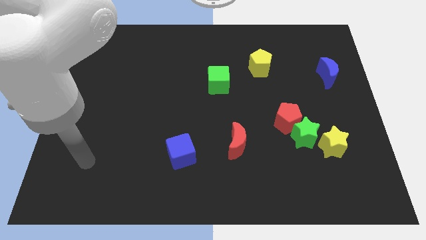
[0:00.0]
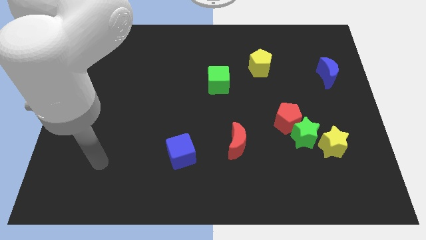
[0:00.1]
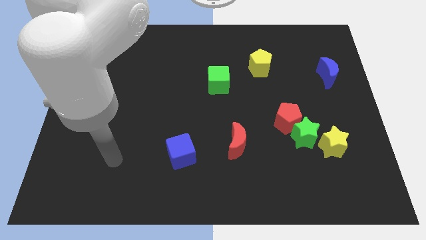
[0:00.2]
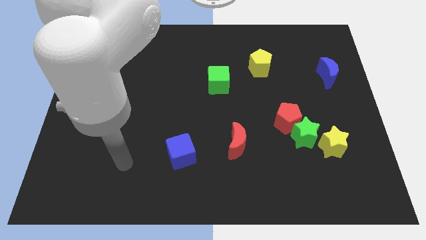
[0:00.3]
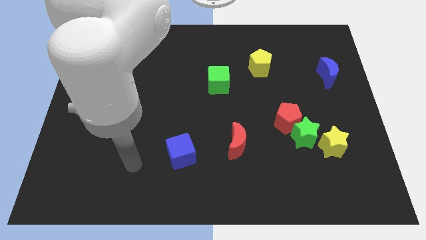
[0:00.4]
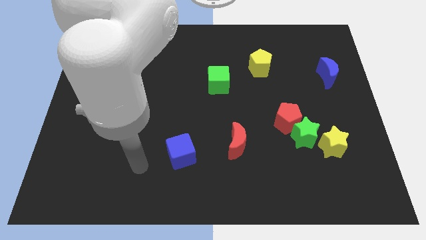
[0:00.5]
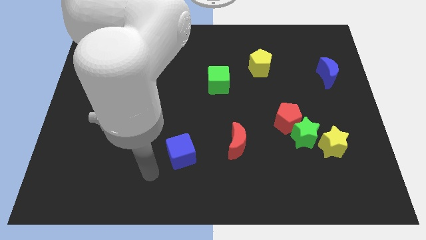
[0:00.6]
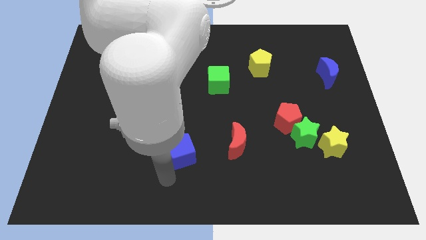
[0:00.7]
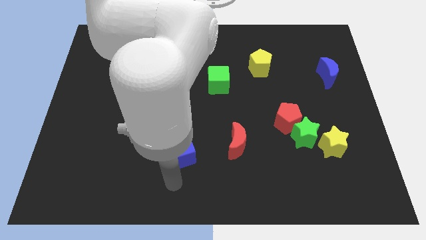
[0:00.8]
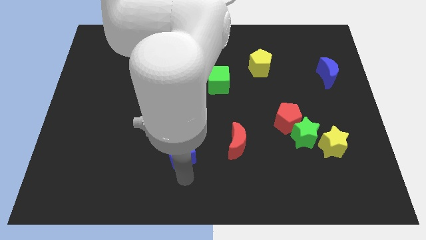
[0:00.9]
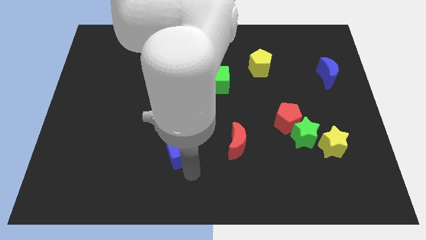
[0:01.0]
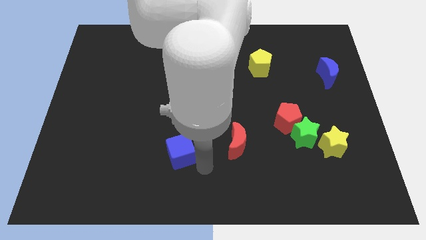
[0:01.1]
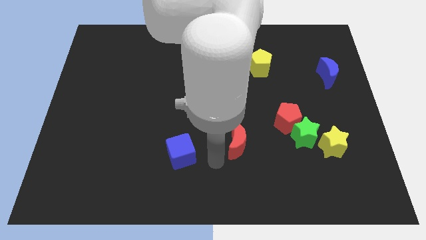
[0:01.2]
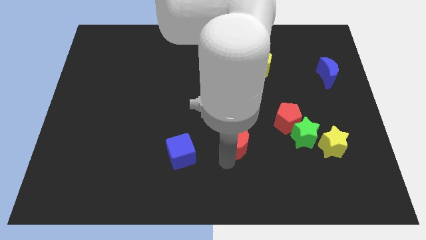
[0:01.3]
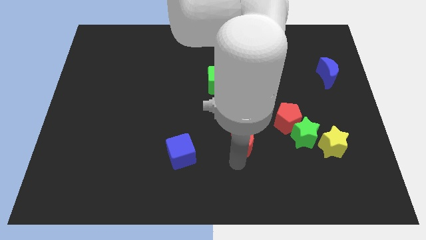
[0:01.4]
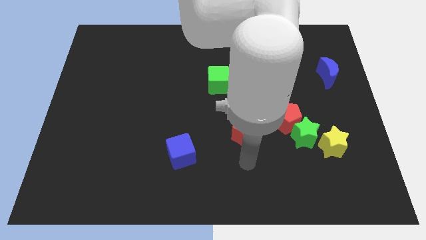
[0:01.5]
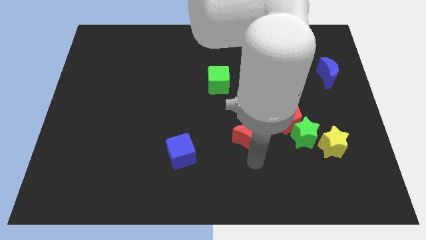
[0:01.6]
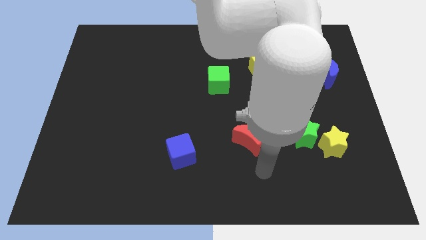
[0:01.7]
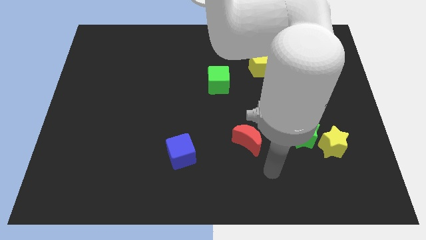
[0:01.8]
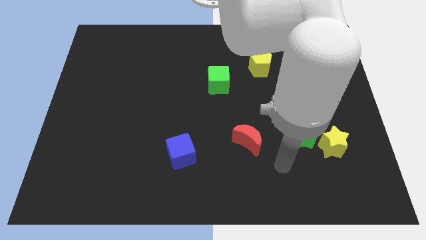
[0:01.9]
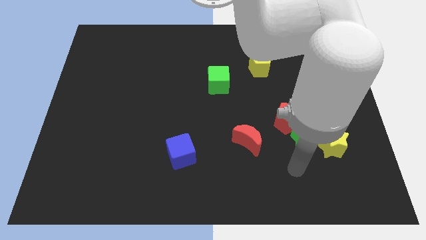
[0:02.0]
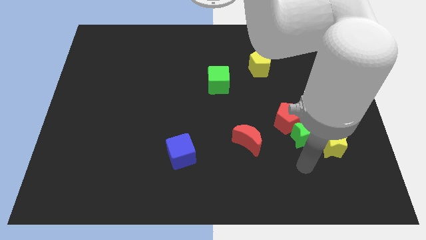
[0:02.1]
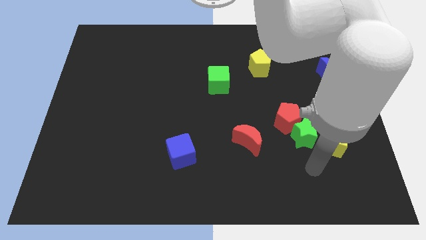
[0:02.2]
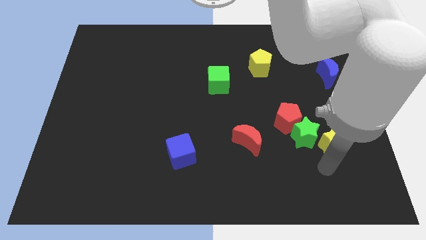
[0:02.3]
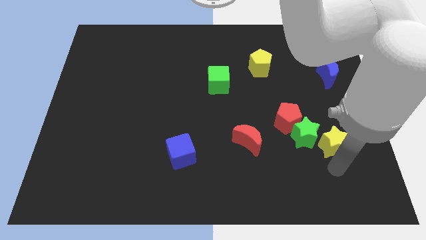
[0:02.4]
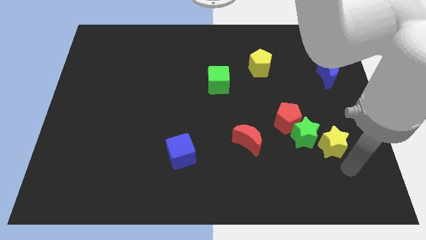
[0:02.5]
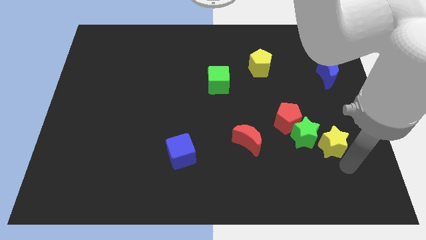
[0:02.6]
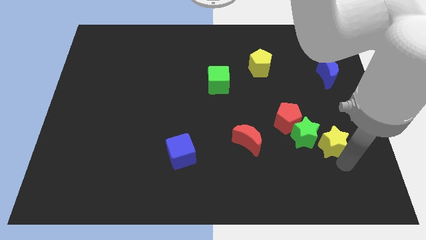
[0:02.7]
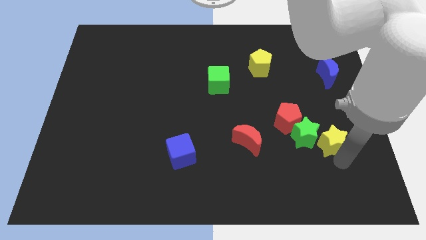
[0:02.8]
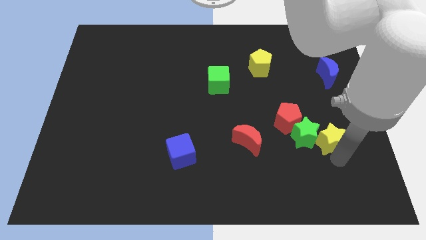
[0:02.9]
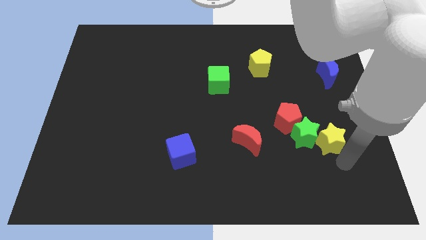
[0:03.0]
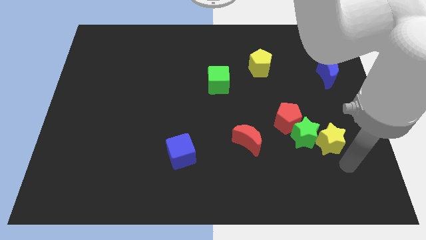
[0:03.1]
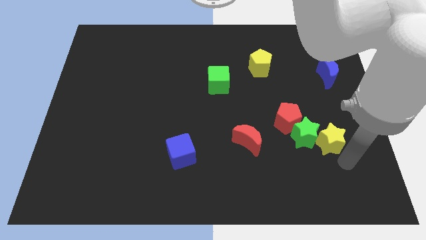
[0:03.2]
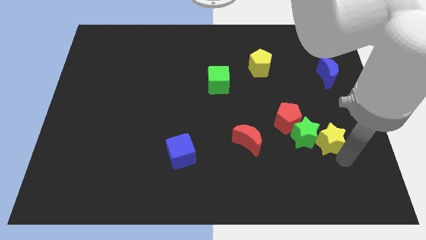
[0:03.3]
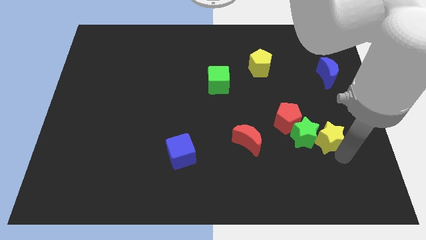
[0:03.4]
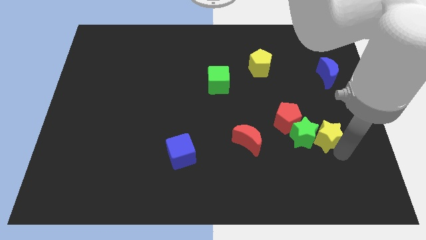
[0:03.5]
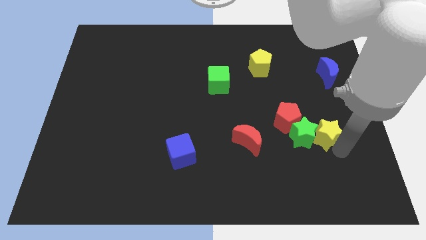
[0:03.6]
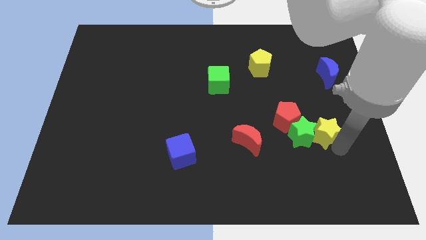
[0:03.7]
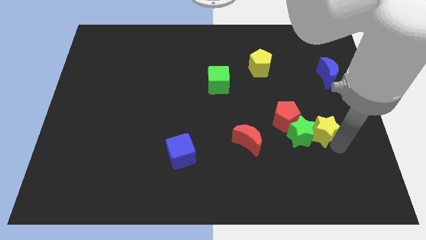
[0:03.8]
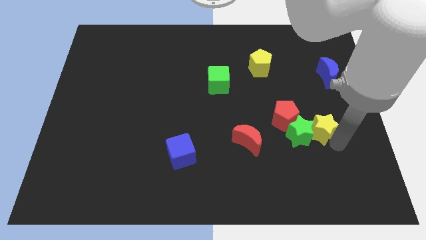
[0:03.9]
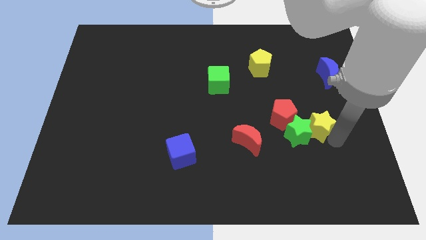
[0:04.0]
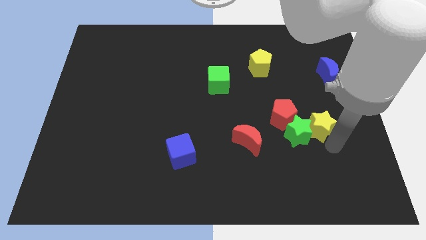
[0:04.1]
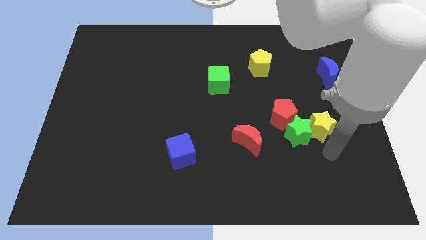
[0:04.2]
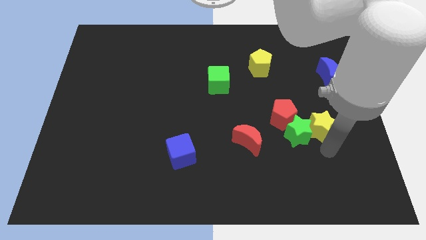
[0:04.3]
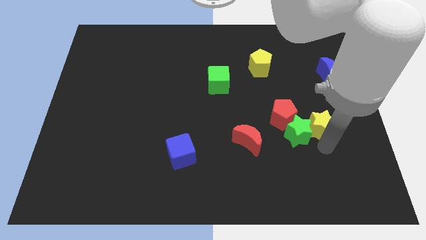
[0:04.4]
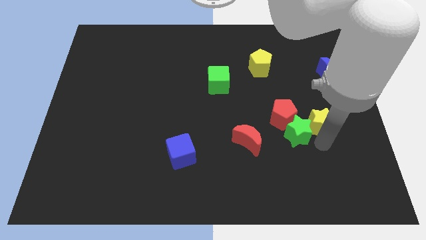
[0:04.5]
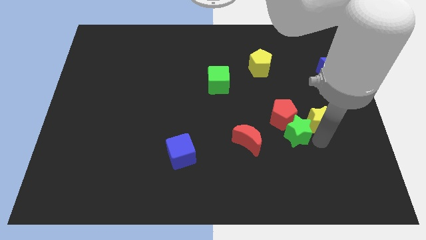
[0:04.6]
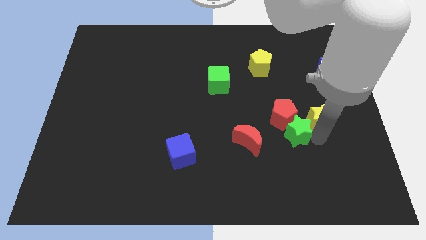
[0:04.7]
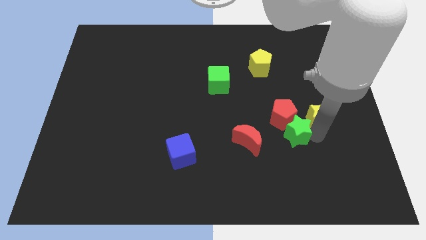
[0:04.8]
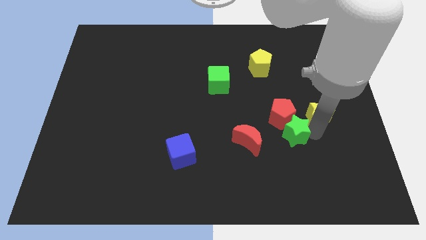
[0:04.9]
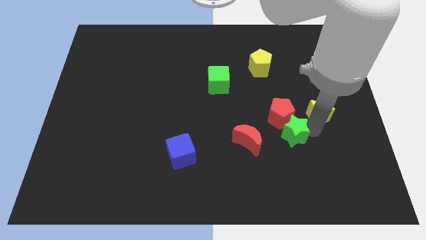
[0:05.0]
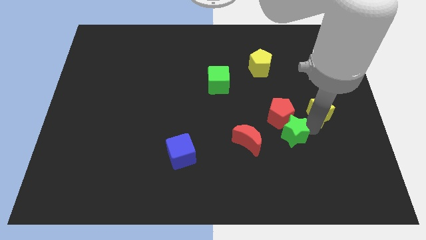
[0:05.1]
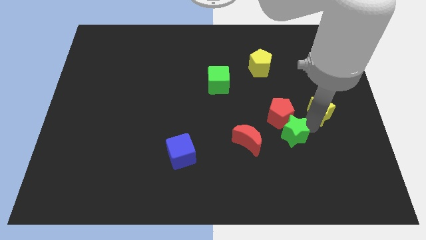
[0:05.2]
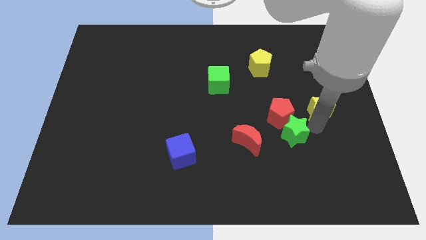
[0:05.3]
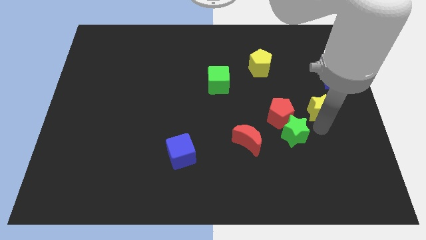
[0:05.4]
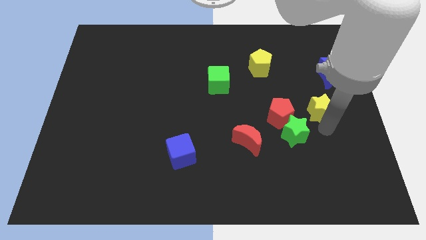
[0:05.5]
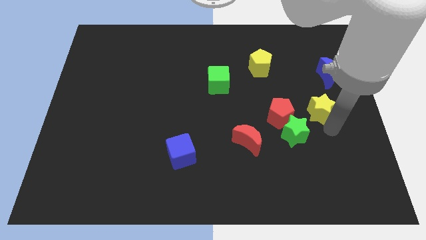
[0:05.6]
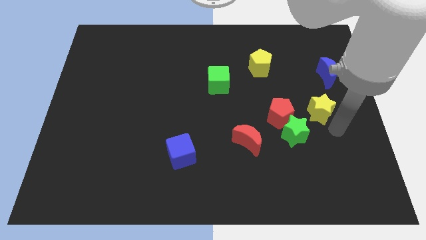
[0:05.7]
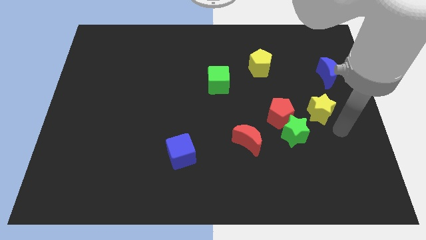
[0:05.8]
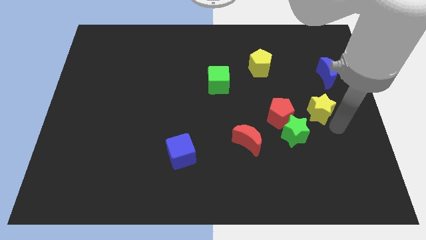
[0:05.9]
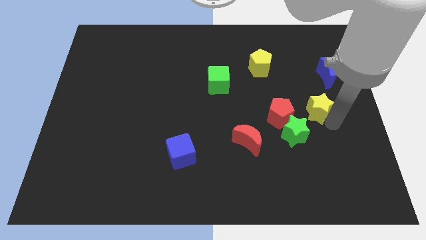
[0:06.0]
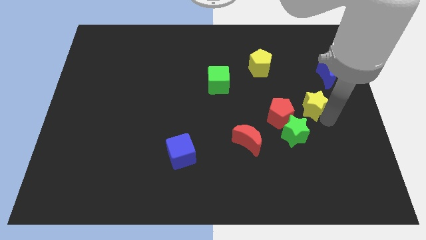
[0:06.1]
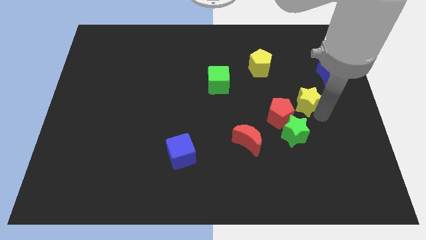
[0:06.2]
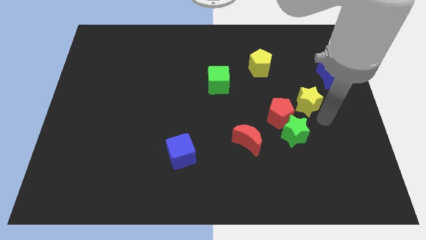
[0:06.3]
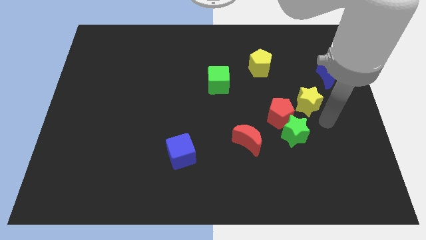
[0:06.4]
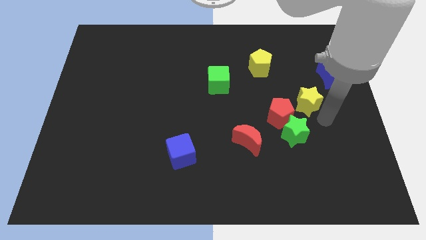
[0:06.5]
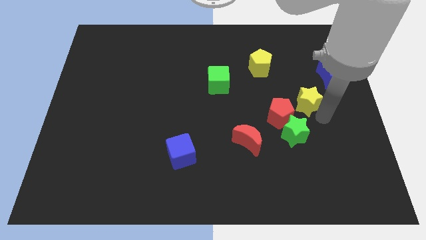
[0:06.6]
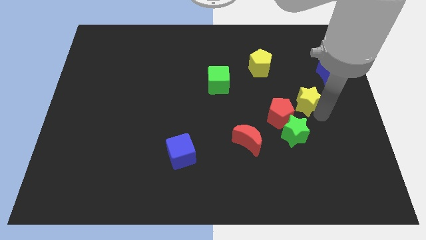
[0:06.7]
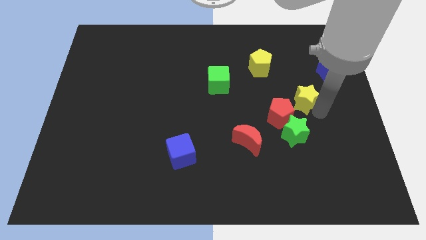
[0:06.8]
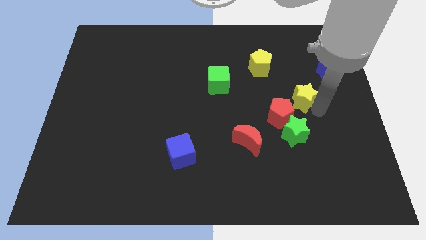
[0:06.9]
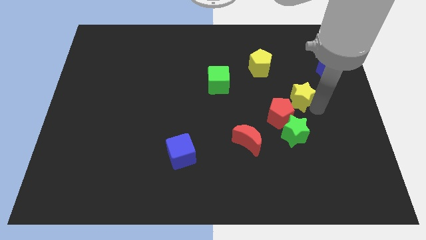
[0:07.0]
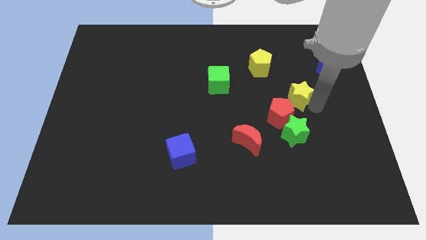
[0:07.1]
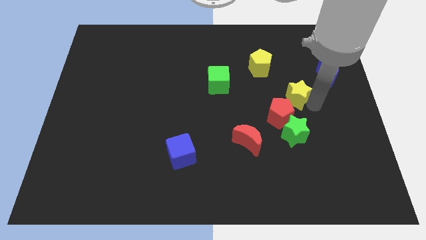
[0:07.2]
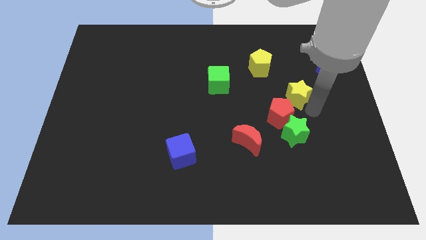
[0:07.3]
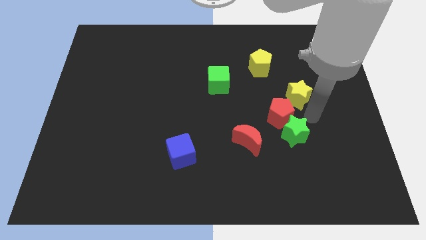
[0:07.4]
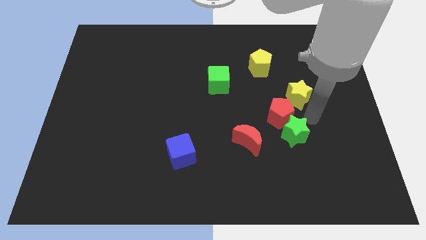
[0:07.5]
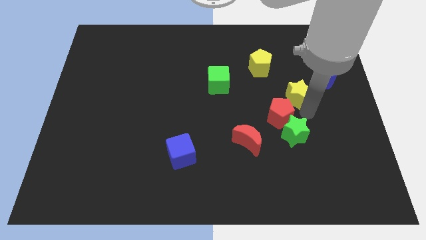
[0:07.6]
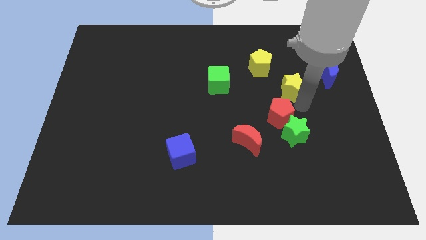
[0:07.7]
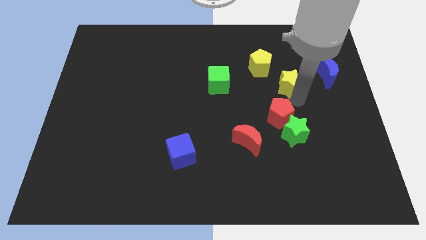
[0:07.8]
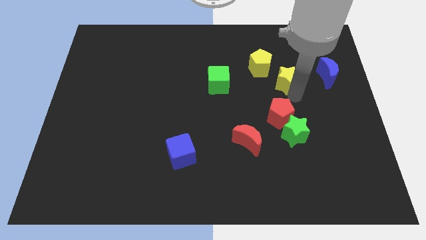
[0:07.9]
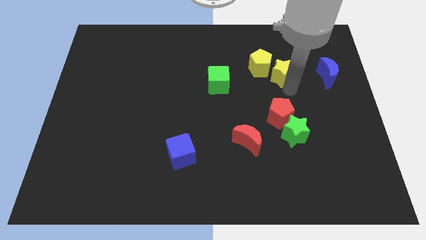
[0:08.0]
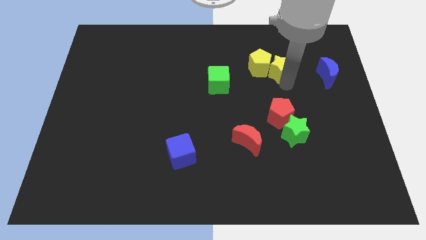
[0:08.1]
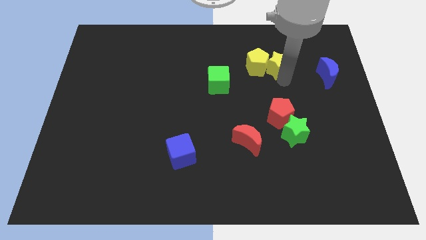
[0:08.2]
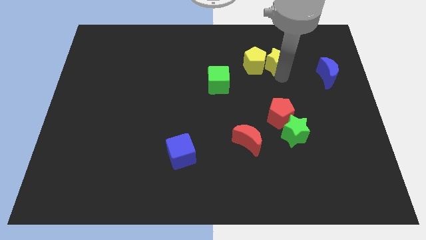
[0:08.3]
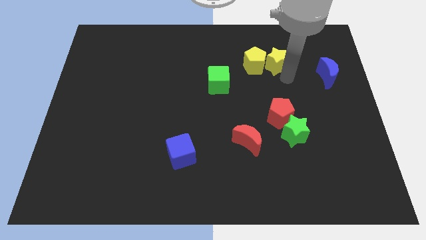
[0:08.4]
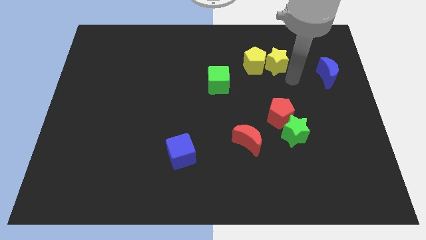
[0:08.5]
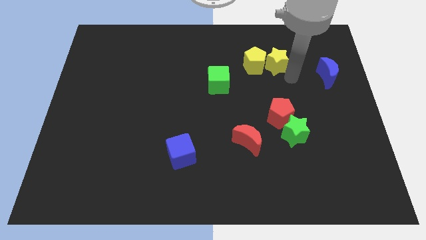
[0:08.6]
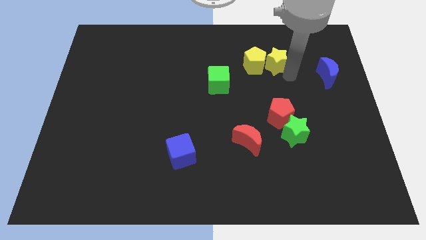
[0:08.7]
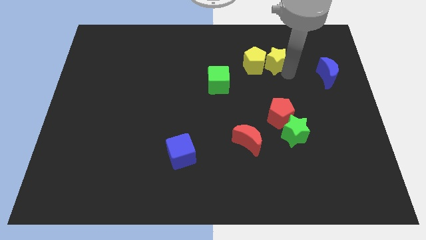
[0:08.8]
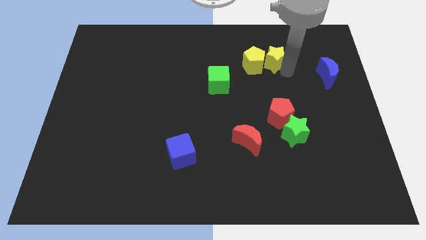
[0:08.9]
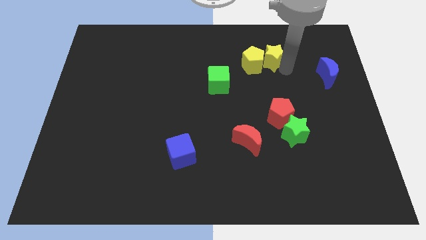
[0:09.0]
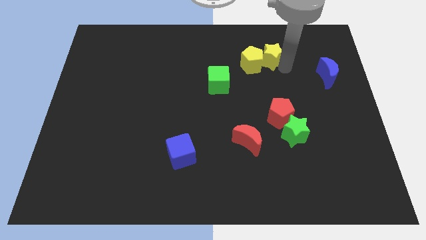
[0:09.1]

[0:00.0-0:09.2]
move the yellow star up and then to the left
